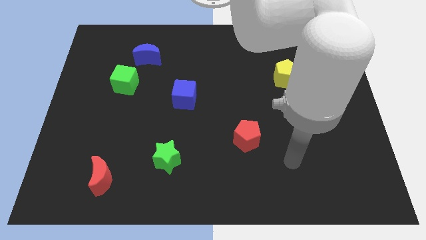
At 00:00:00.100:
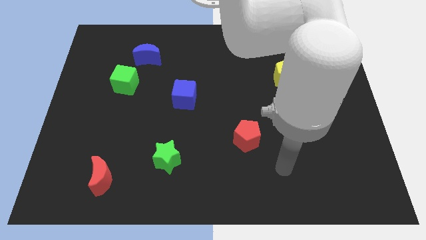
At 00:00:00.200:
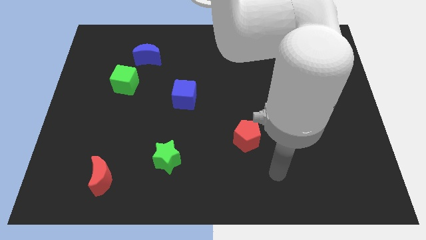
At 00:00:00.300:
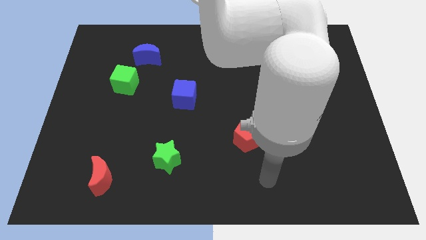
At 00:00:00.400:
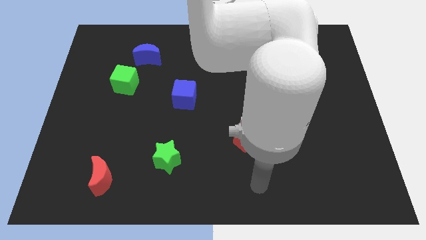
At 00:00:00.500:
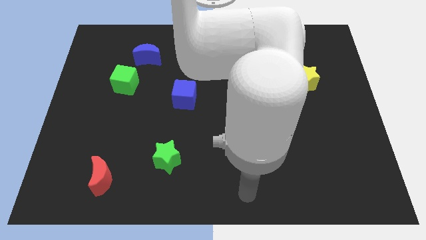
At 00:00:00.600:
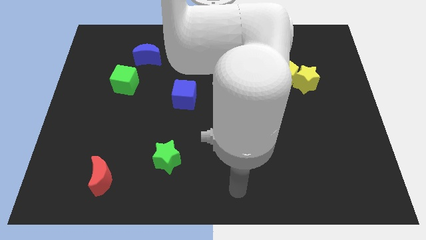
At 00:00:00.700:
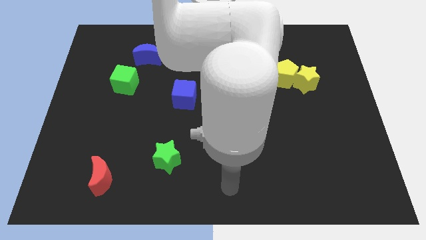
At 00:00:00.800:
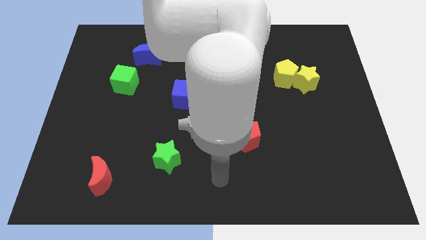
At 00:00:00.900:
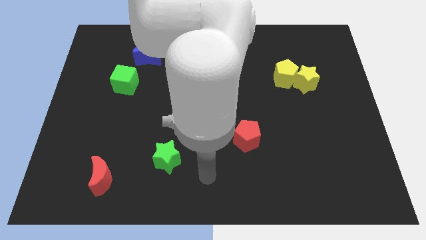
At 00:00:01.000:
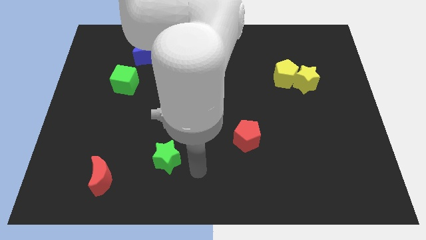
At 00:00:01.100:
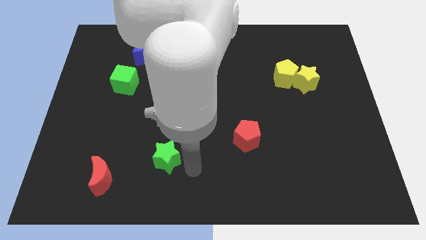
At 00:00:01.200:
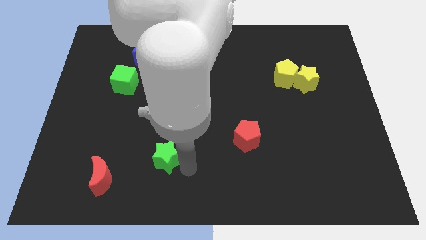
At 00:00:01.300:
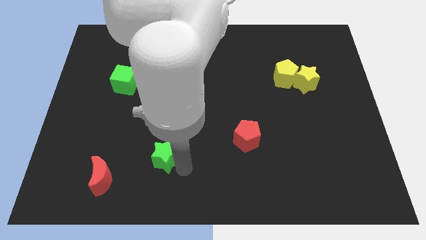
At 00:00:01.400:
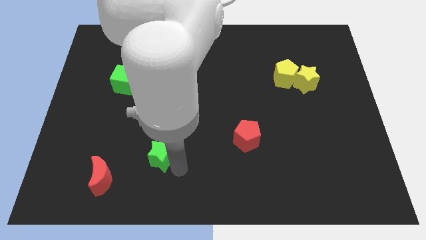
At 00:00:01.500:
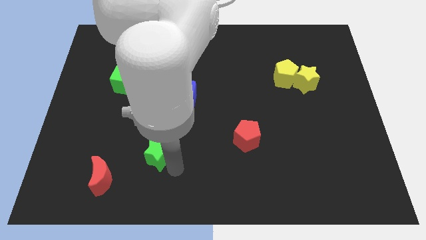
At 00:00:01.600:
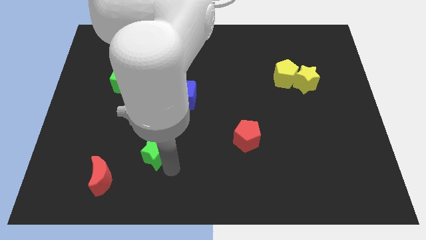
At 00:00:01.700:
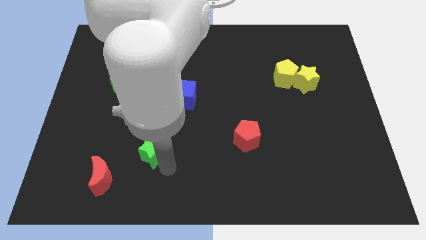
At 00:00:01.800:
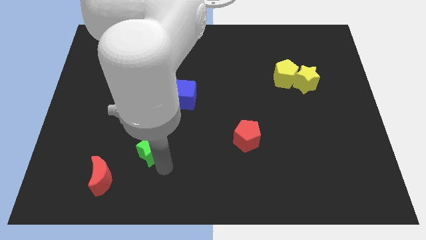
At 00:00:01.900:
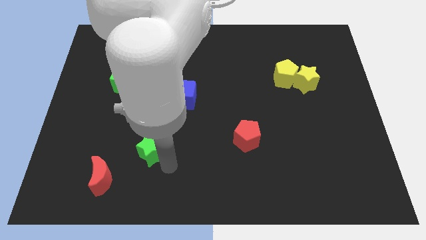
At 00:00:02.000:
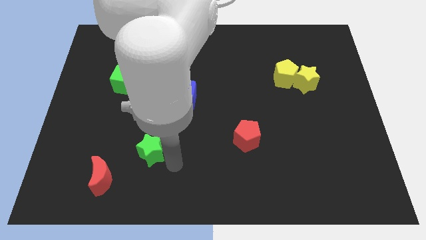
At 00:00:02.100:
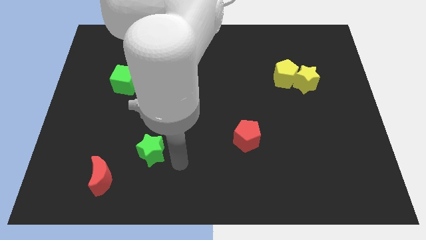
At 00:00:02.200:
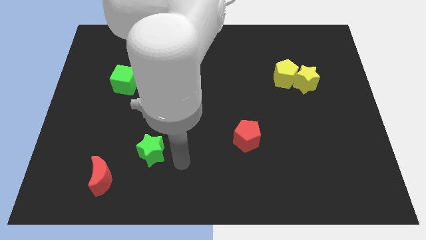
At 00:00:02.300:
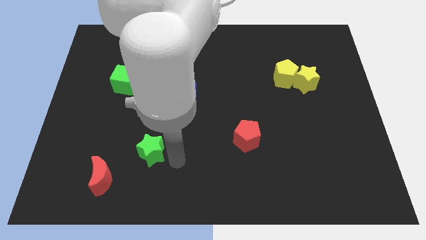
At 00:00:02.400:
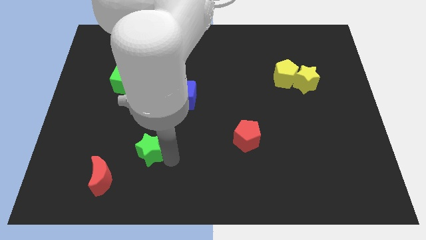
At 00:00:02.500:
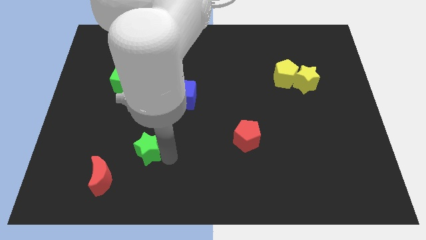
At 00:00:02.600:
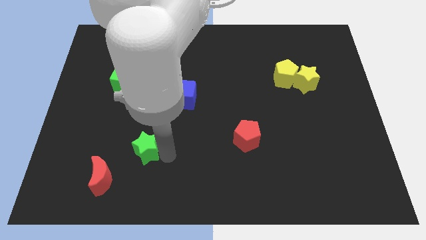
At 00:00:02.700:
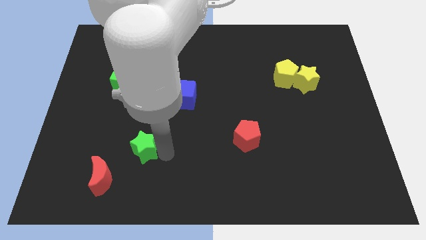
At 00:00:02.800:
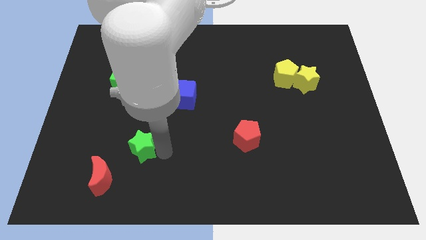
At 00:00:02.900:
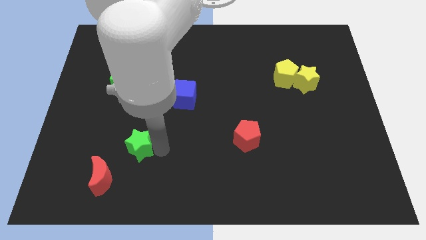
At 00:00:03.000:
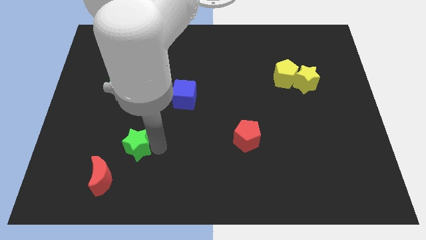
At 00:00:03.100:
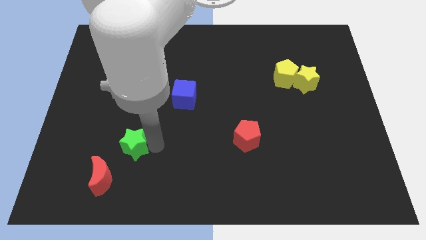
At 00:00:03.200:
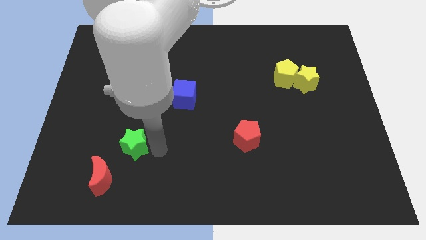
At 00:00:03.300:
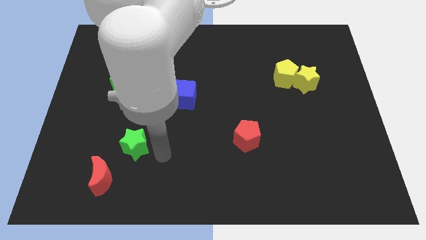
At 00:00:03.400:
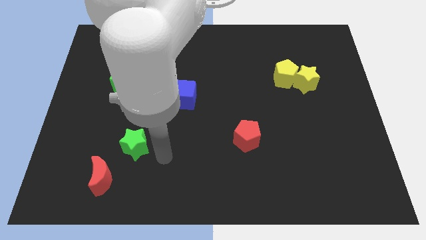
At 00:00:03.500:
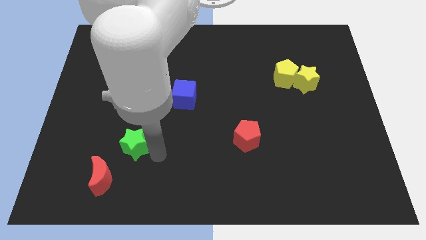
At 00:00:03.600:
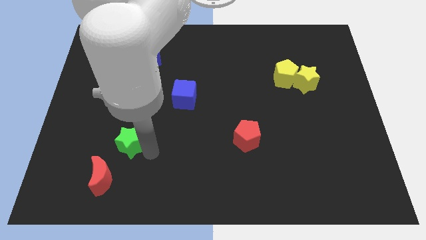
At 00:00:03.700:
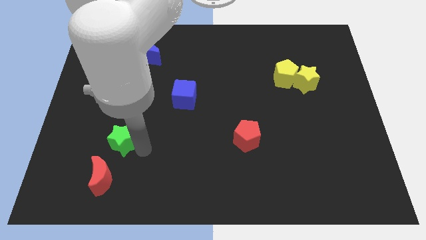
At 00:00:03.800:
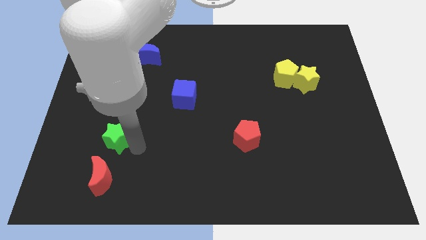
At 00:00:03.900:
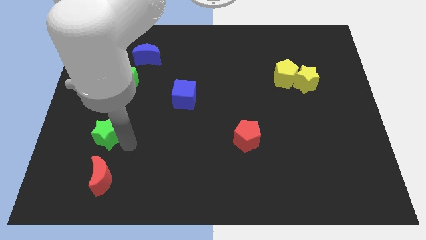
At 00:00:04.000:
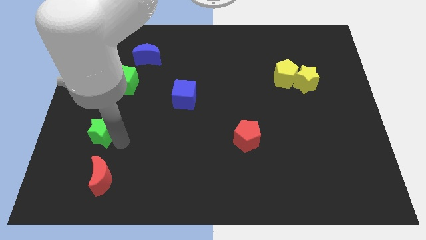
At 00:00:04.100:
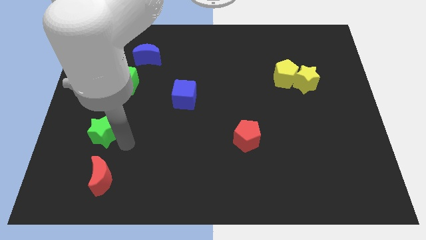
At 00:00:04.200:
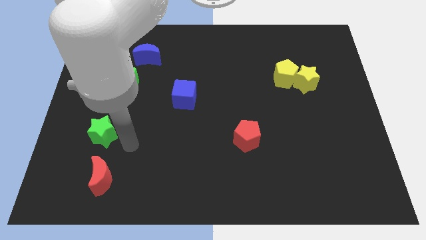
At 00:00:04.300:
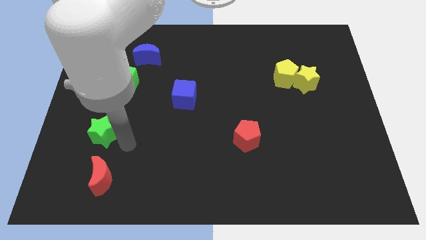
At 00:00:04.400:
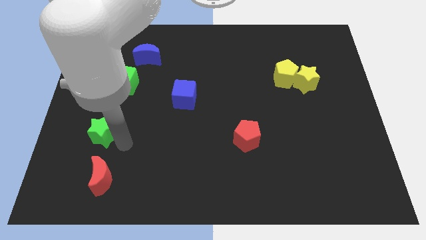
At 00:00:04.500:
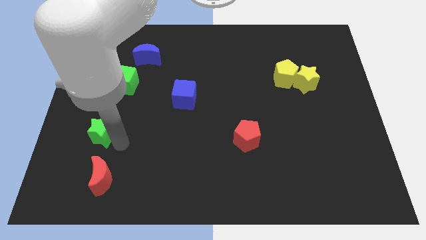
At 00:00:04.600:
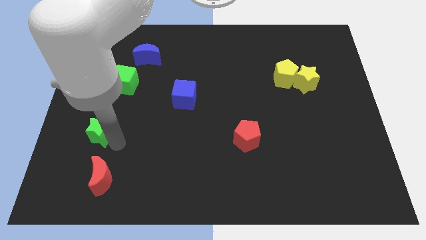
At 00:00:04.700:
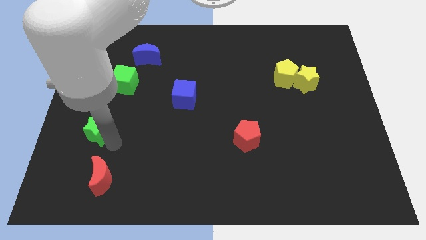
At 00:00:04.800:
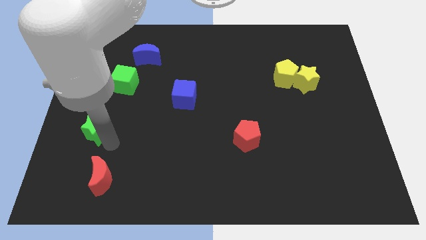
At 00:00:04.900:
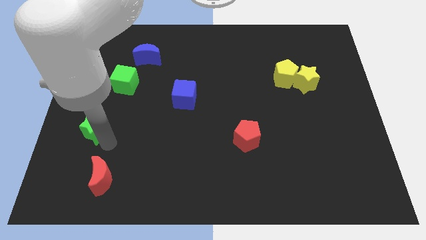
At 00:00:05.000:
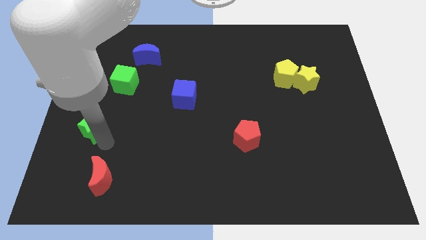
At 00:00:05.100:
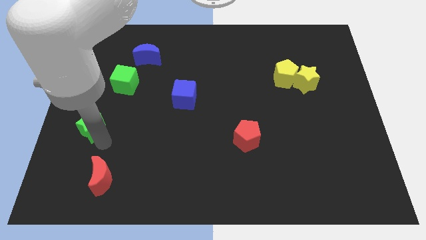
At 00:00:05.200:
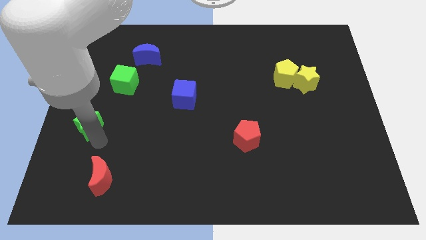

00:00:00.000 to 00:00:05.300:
push the green star to the left side
